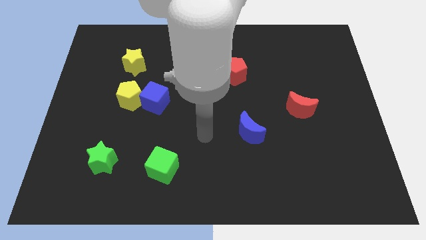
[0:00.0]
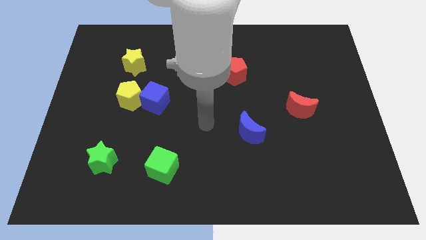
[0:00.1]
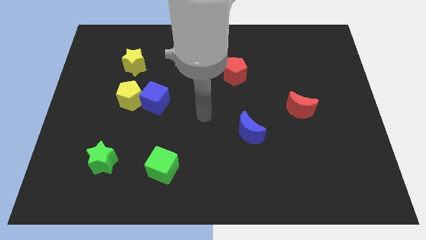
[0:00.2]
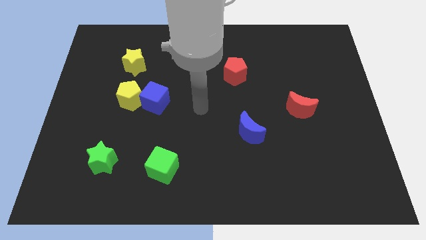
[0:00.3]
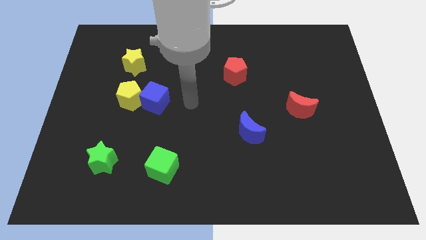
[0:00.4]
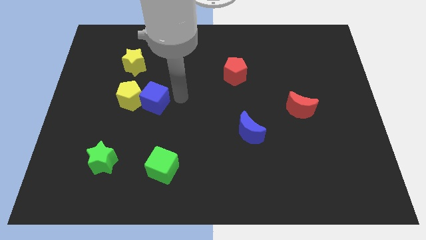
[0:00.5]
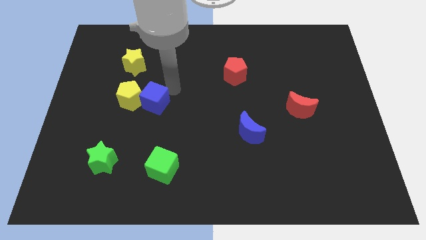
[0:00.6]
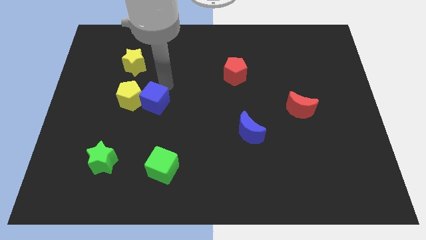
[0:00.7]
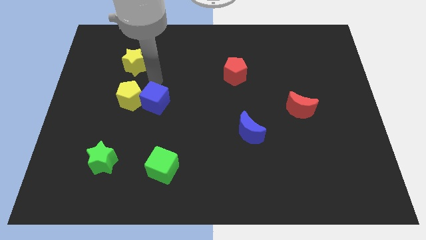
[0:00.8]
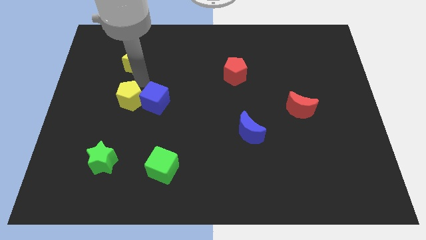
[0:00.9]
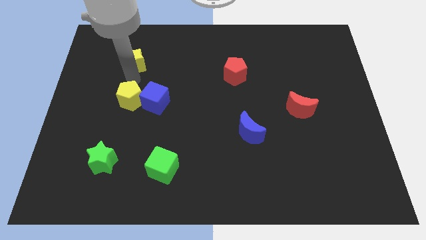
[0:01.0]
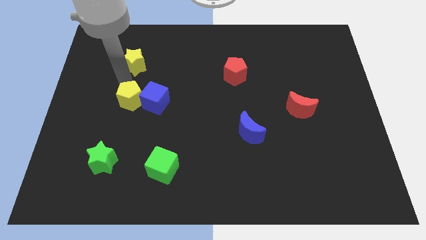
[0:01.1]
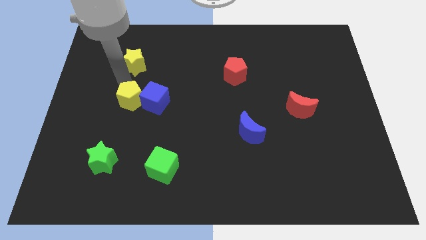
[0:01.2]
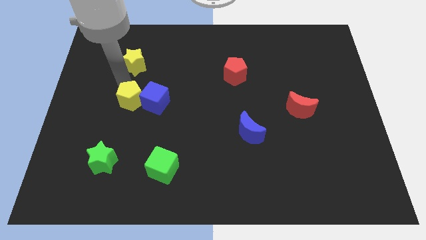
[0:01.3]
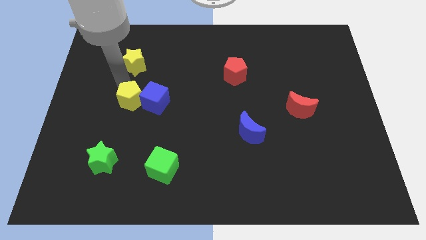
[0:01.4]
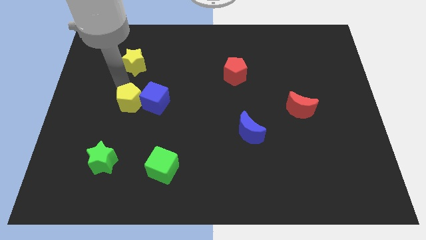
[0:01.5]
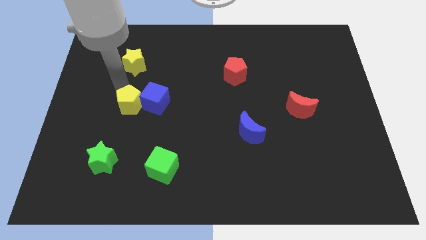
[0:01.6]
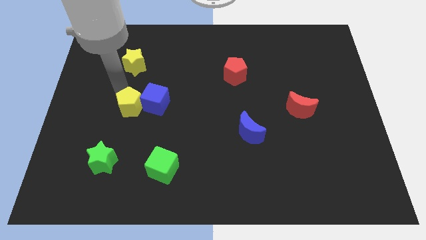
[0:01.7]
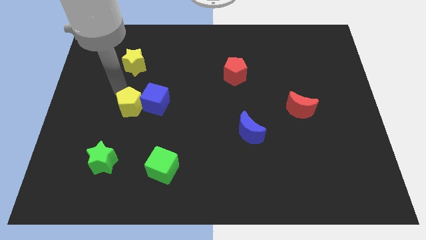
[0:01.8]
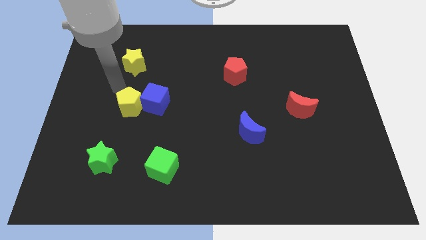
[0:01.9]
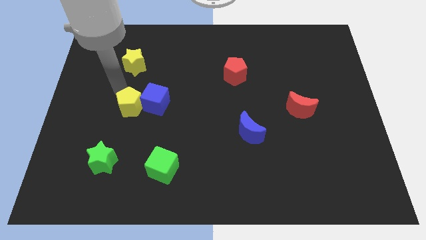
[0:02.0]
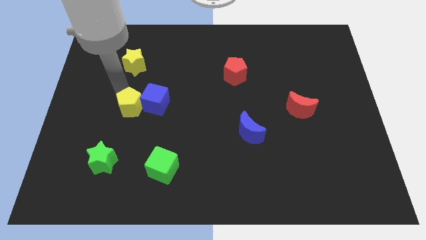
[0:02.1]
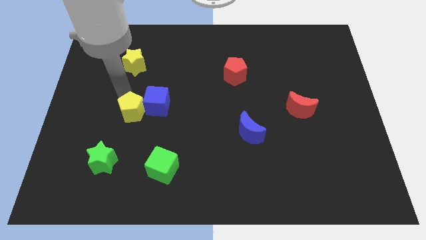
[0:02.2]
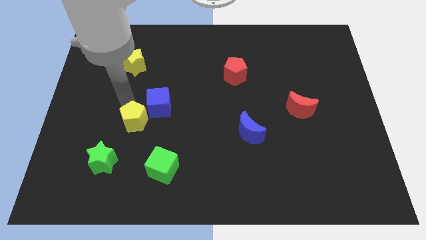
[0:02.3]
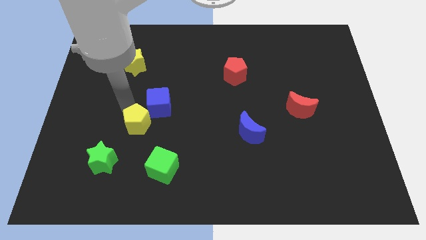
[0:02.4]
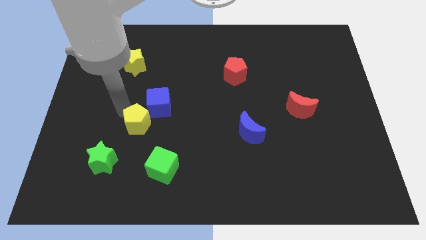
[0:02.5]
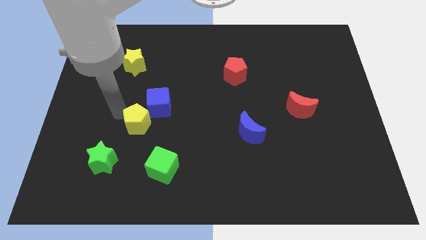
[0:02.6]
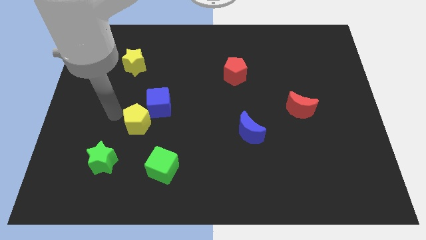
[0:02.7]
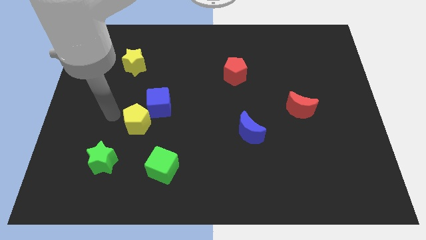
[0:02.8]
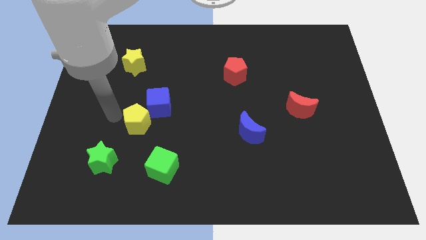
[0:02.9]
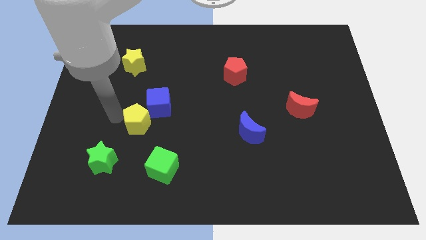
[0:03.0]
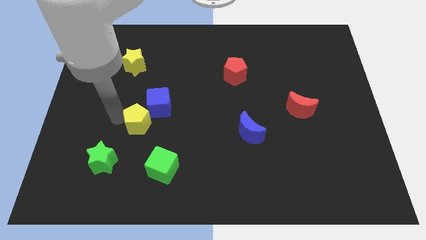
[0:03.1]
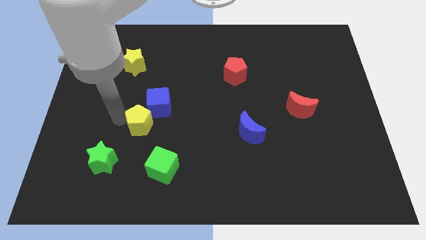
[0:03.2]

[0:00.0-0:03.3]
push the yellow pentagon a little down and right diagonally

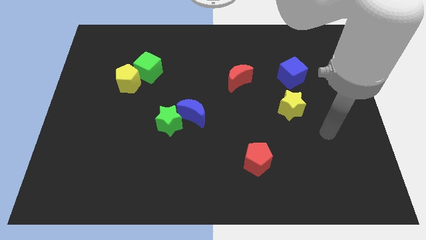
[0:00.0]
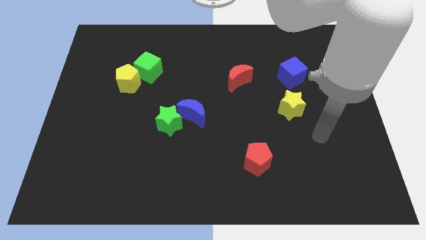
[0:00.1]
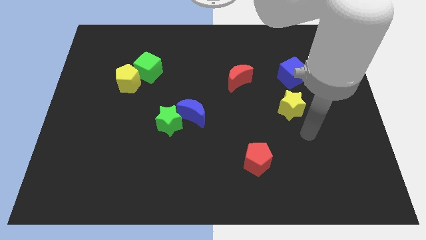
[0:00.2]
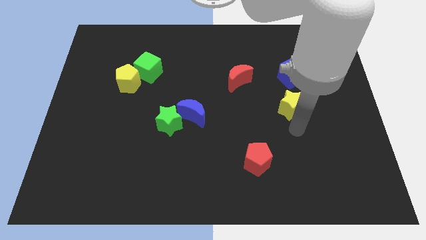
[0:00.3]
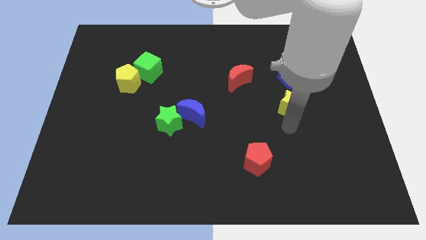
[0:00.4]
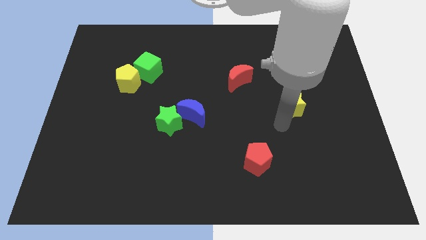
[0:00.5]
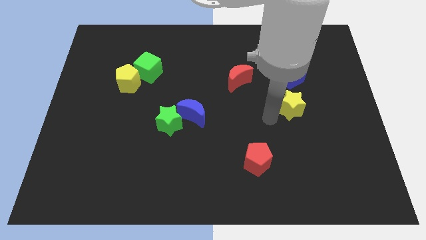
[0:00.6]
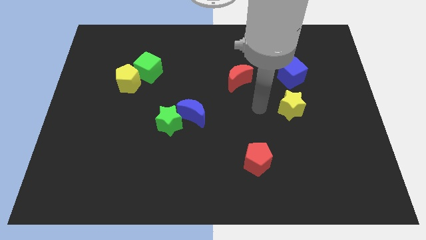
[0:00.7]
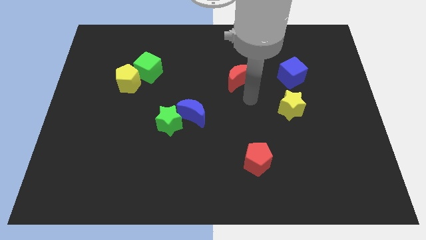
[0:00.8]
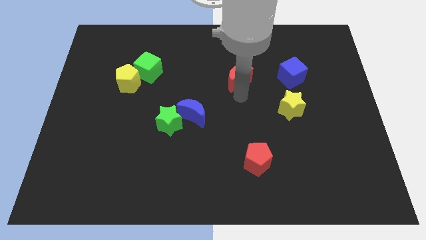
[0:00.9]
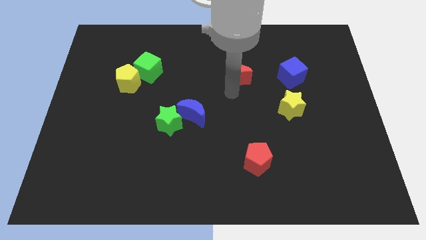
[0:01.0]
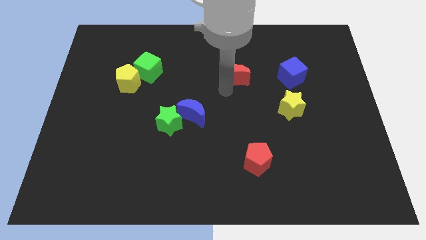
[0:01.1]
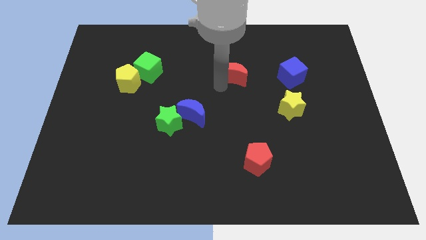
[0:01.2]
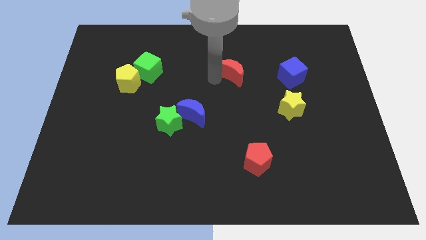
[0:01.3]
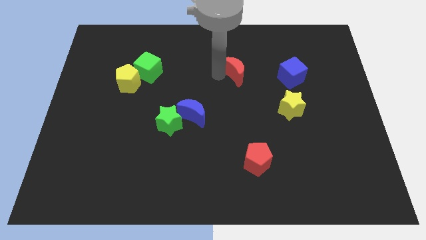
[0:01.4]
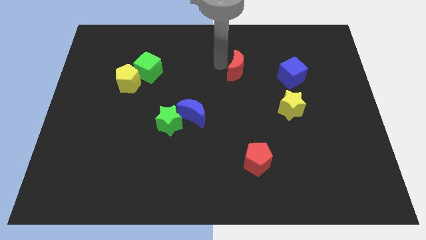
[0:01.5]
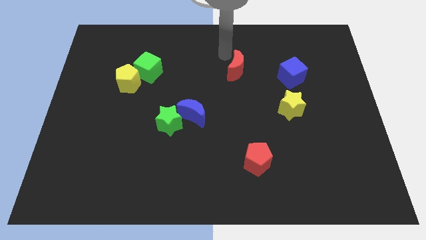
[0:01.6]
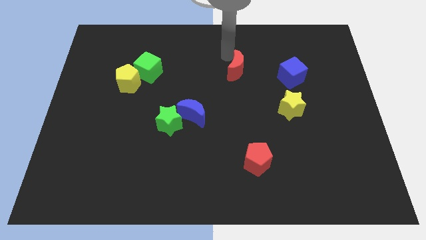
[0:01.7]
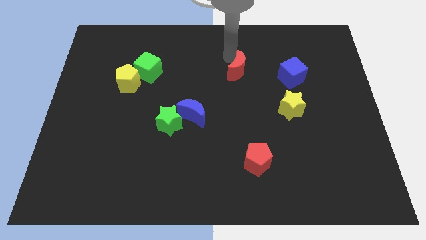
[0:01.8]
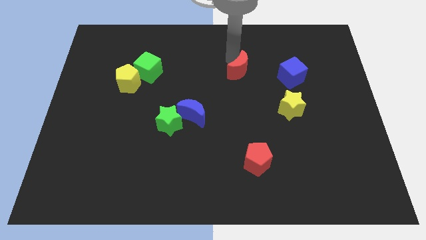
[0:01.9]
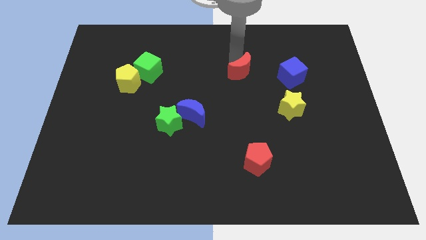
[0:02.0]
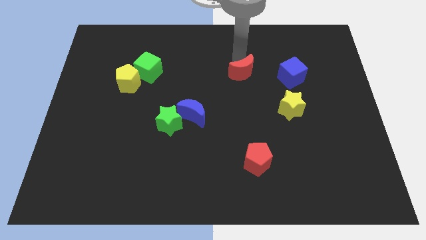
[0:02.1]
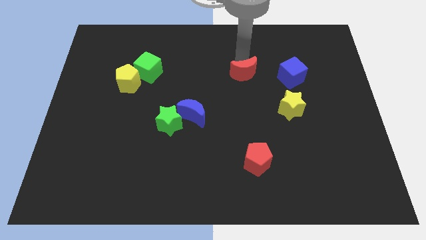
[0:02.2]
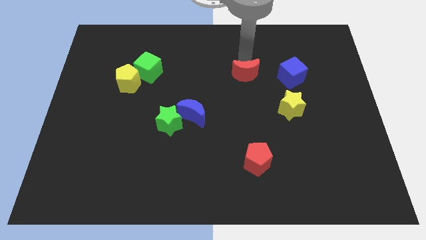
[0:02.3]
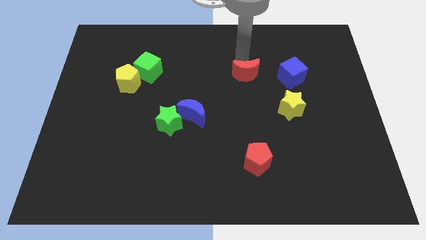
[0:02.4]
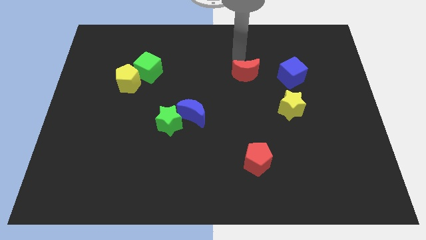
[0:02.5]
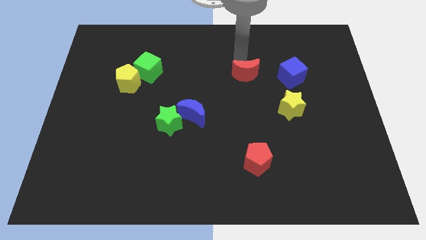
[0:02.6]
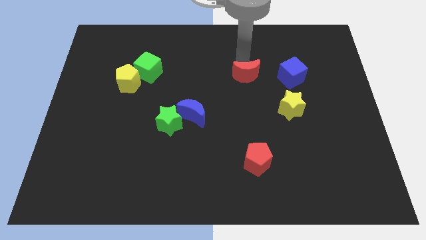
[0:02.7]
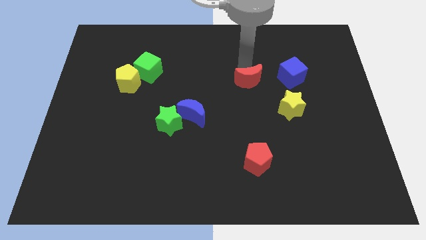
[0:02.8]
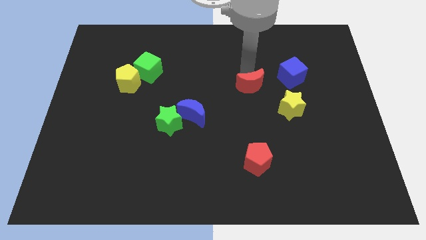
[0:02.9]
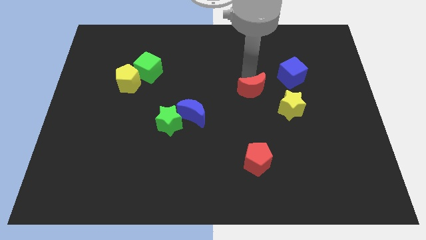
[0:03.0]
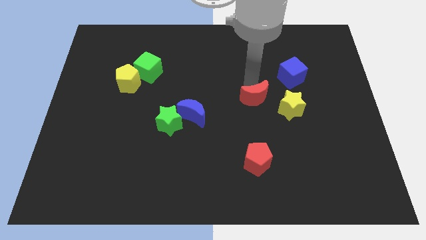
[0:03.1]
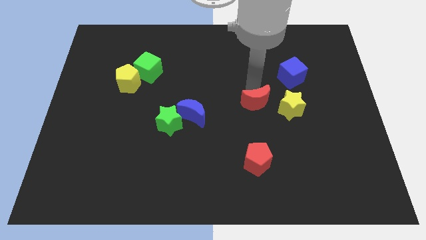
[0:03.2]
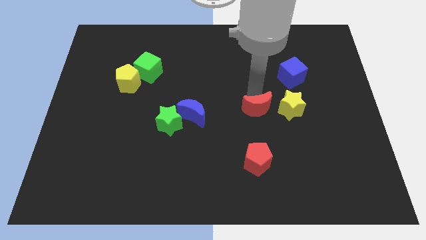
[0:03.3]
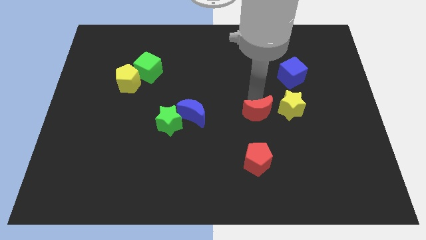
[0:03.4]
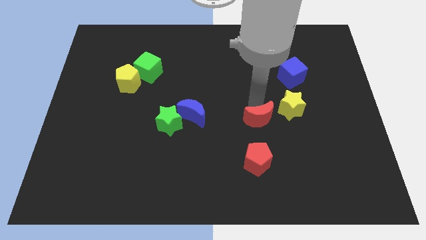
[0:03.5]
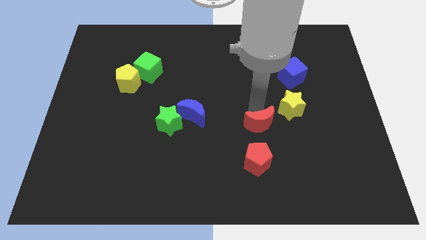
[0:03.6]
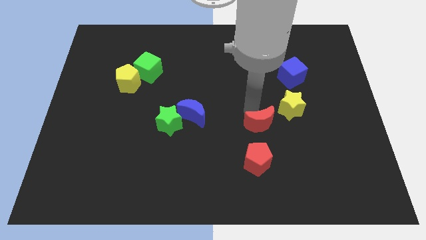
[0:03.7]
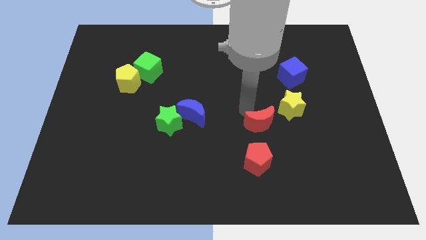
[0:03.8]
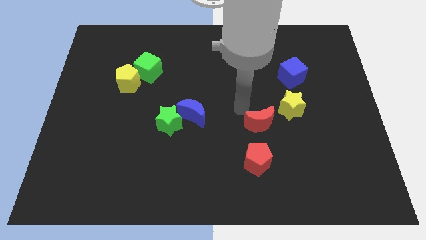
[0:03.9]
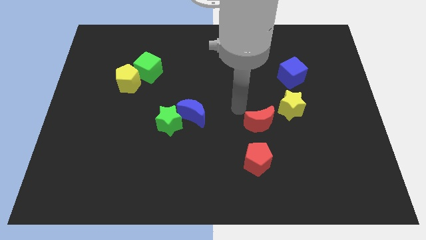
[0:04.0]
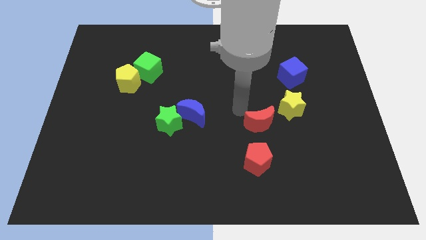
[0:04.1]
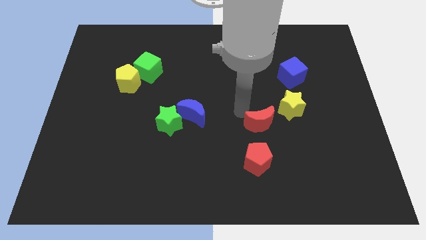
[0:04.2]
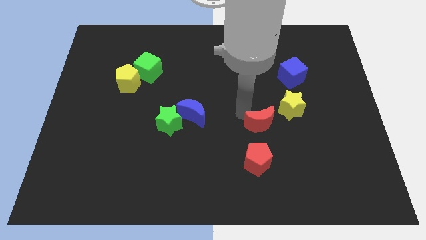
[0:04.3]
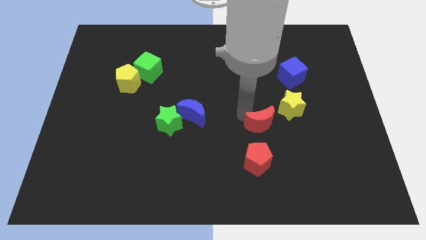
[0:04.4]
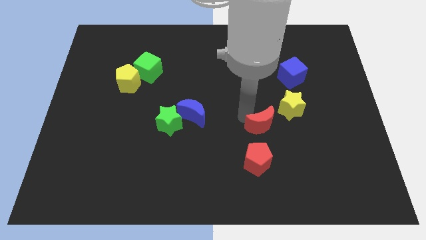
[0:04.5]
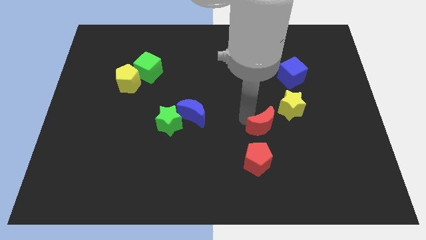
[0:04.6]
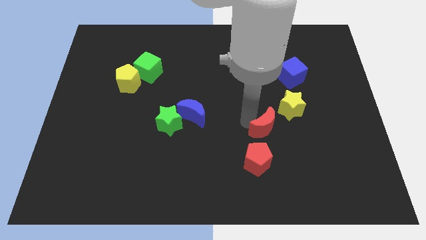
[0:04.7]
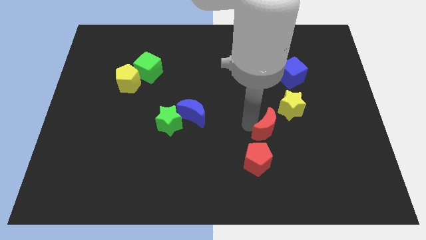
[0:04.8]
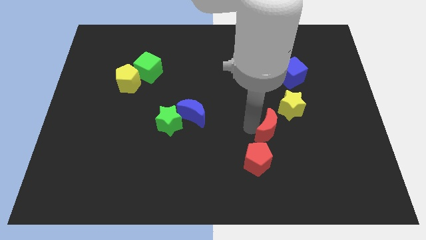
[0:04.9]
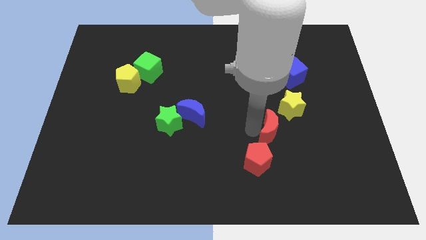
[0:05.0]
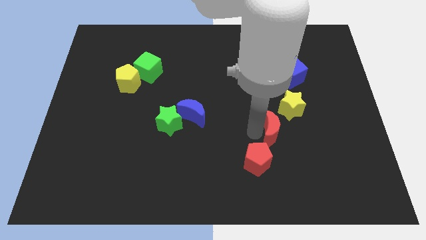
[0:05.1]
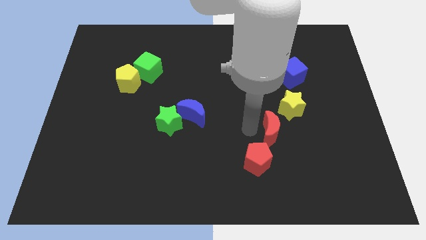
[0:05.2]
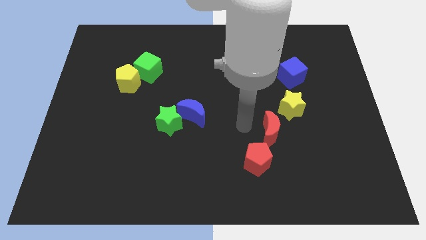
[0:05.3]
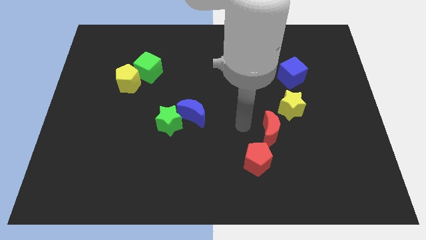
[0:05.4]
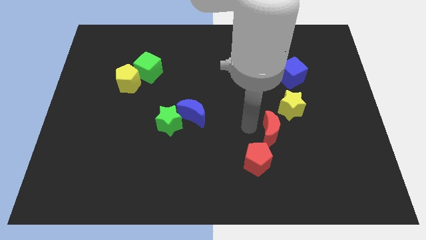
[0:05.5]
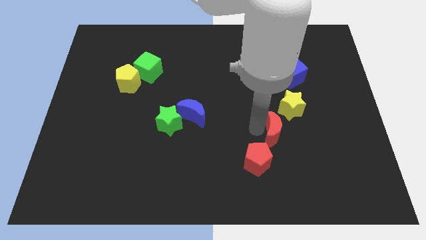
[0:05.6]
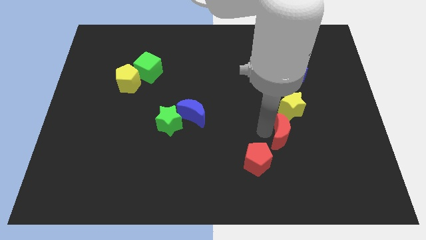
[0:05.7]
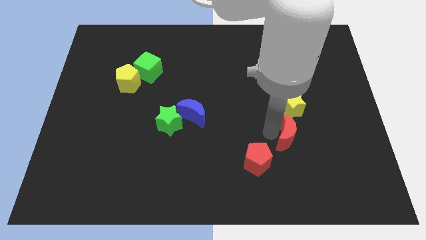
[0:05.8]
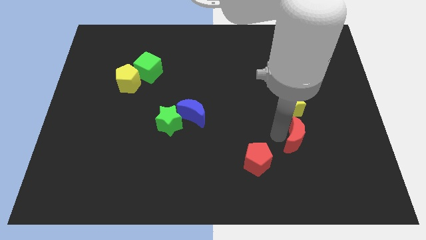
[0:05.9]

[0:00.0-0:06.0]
slide the red moon downwards and then right
